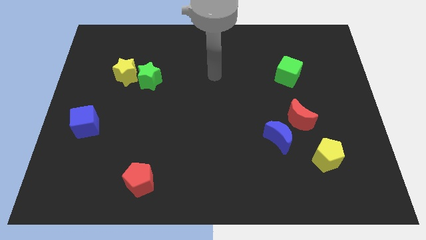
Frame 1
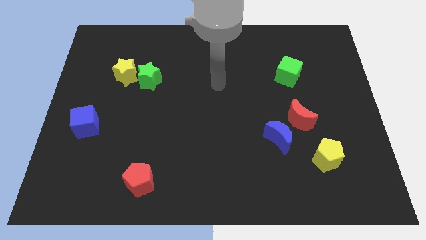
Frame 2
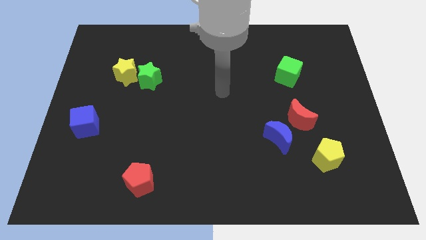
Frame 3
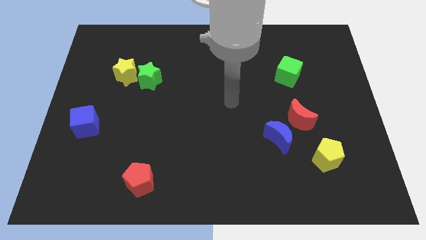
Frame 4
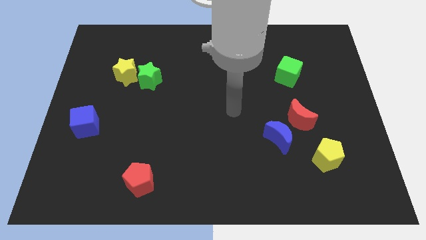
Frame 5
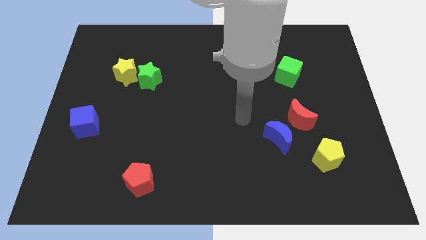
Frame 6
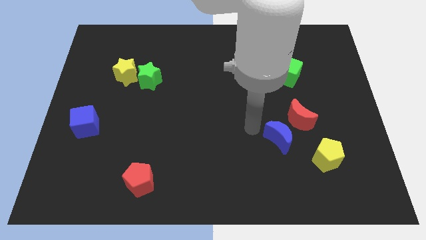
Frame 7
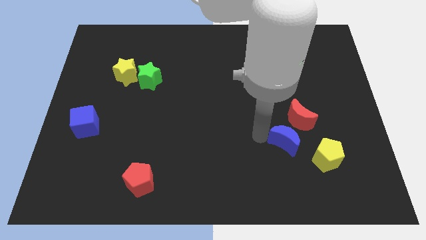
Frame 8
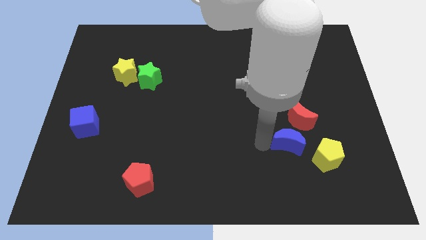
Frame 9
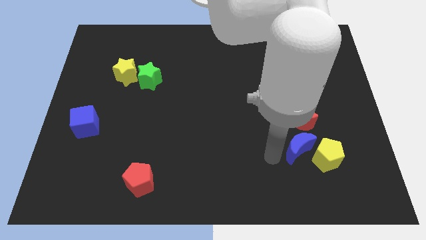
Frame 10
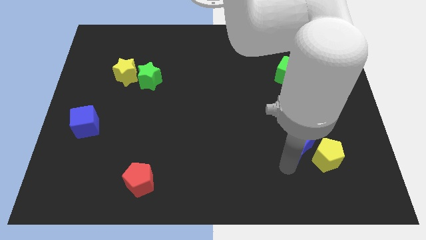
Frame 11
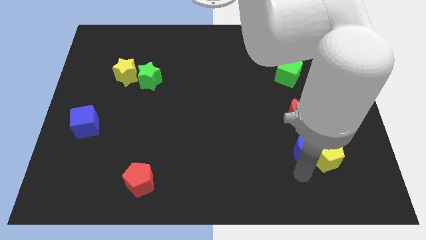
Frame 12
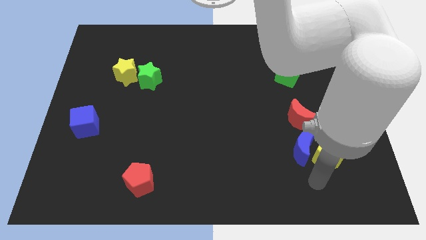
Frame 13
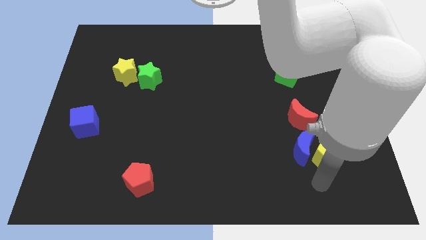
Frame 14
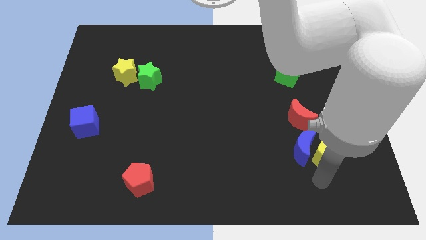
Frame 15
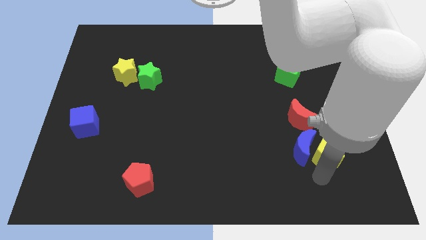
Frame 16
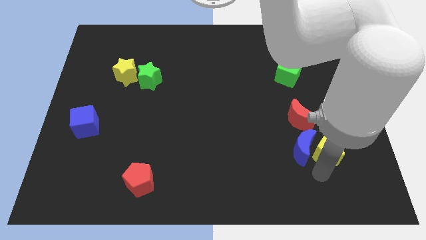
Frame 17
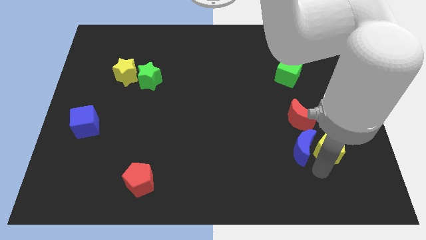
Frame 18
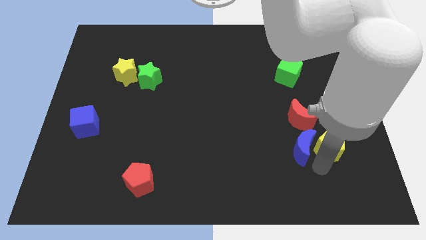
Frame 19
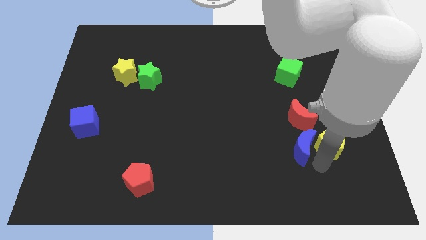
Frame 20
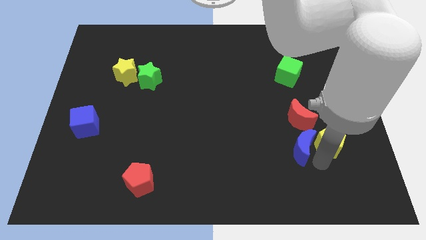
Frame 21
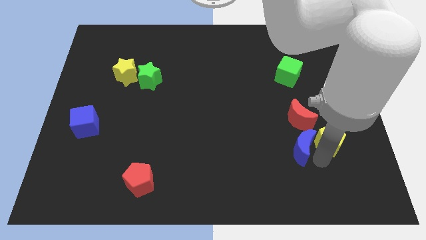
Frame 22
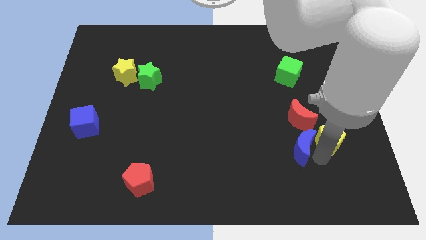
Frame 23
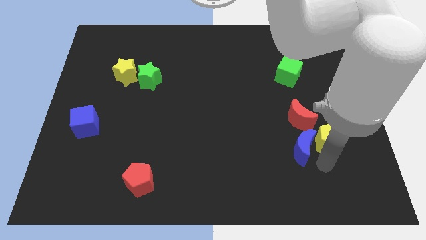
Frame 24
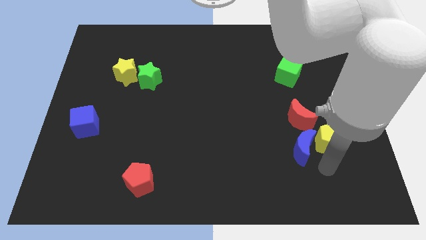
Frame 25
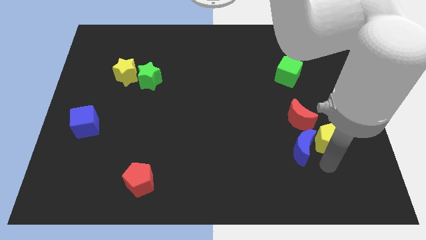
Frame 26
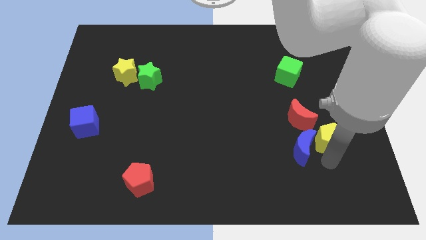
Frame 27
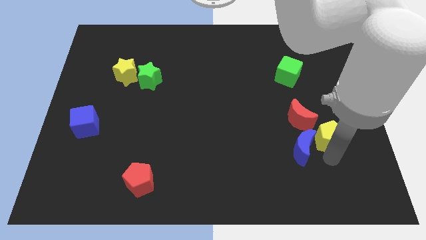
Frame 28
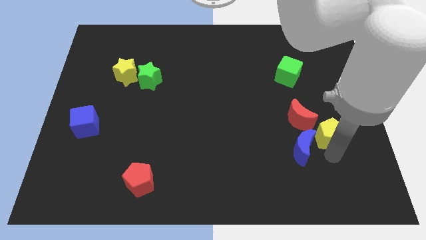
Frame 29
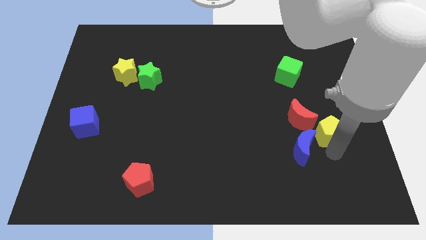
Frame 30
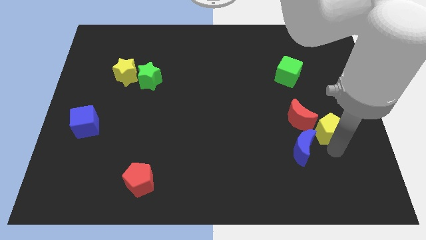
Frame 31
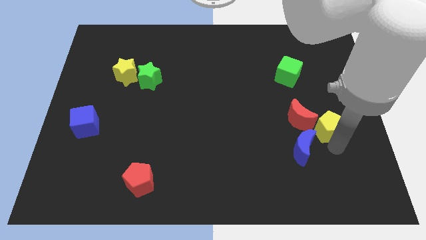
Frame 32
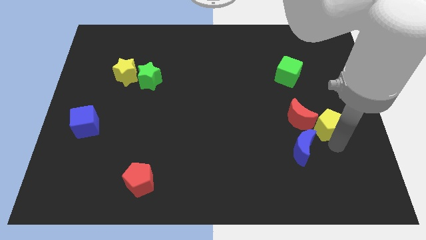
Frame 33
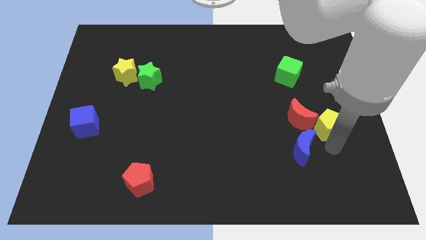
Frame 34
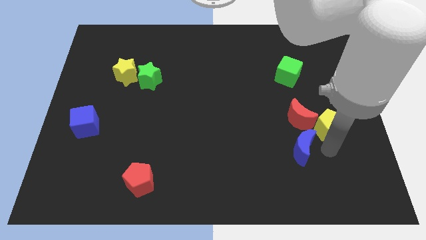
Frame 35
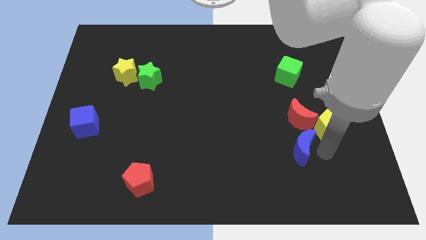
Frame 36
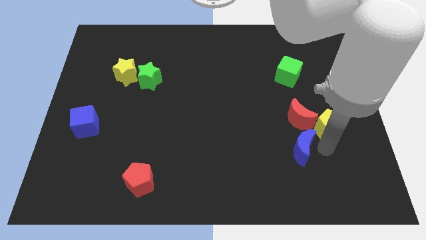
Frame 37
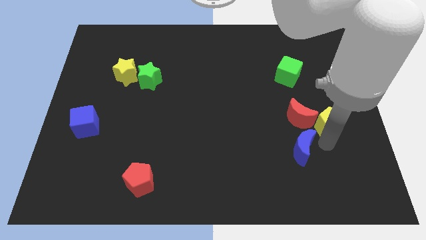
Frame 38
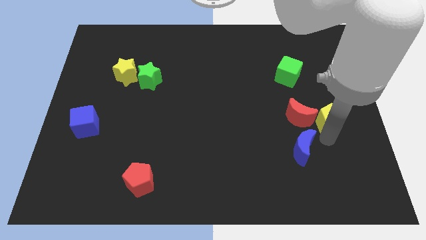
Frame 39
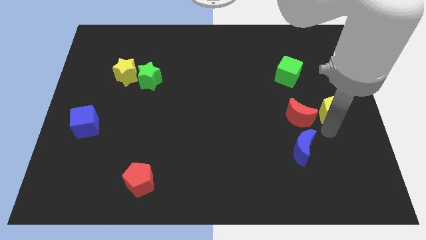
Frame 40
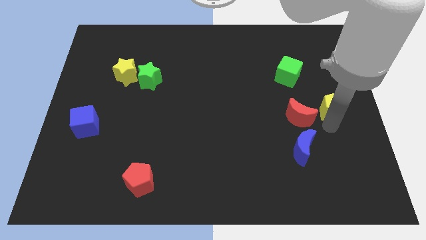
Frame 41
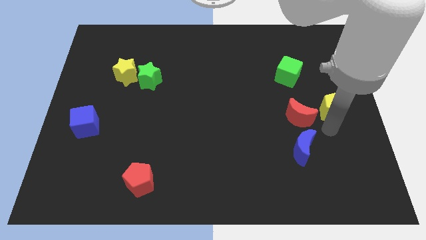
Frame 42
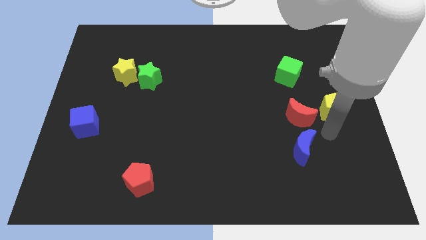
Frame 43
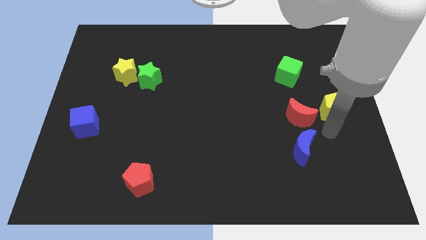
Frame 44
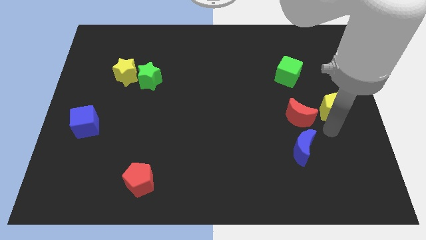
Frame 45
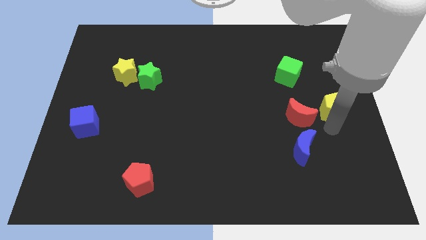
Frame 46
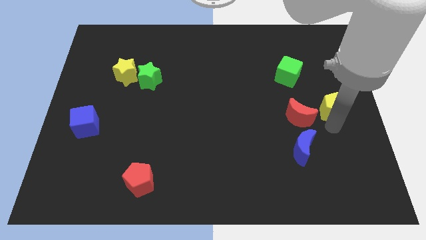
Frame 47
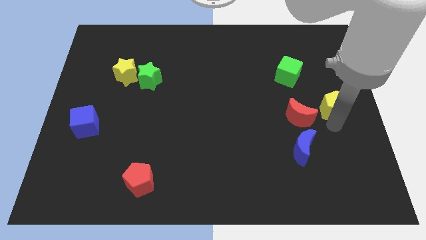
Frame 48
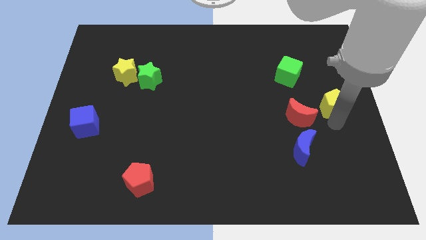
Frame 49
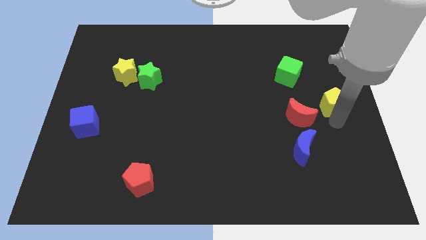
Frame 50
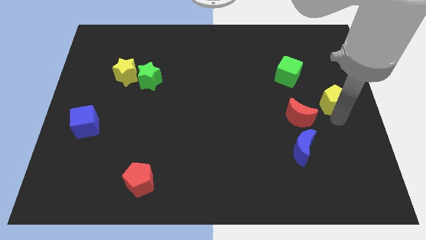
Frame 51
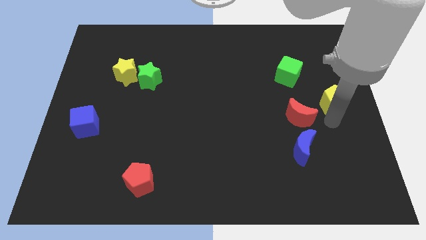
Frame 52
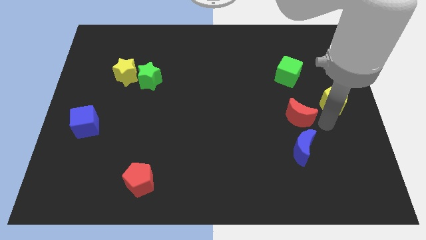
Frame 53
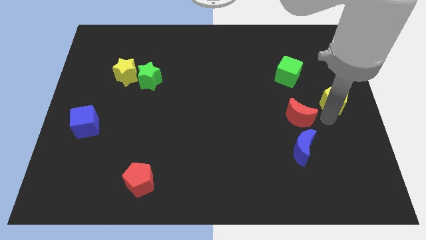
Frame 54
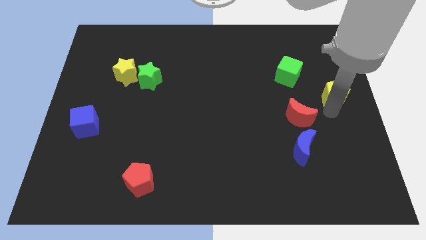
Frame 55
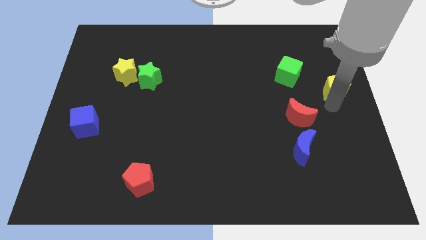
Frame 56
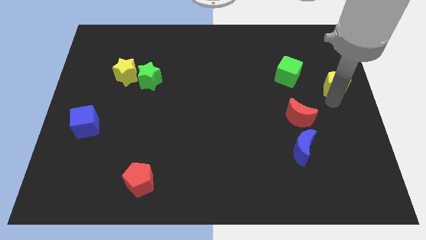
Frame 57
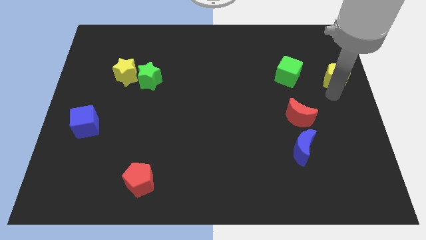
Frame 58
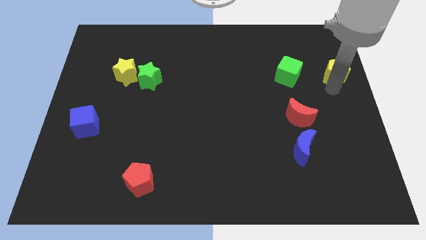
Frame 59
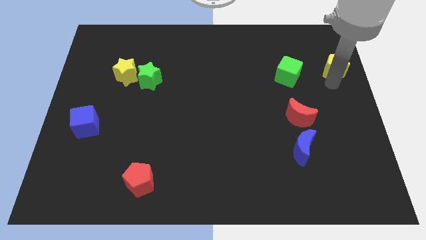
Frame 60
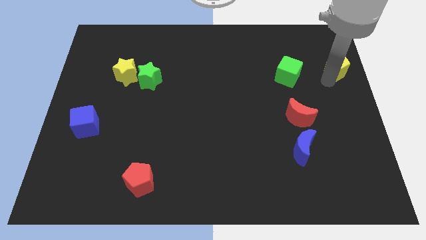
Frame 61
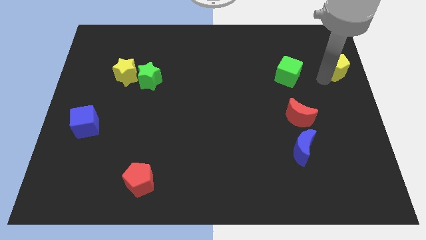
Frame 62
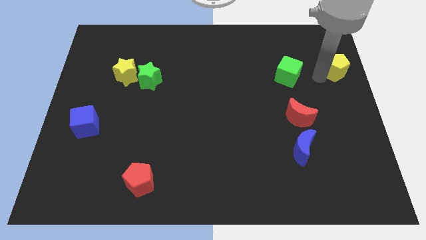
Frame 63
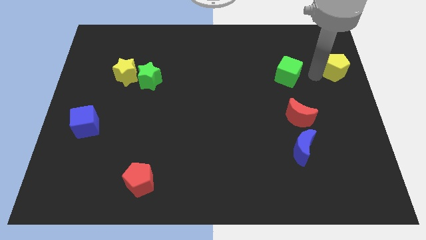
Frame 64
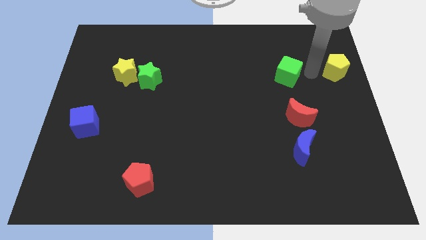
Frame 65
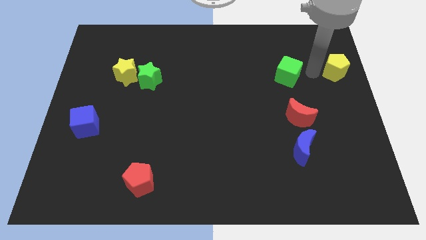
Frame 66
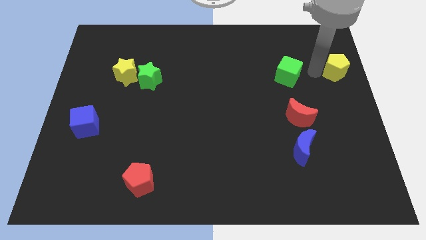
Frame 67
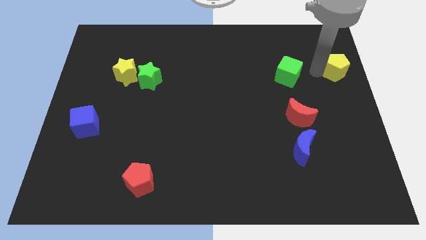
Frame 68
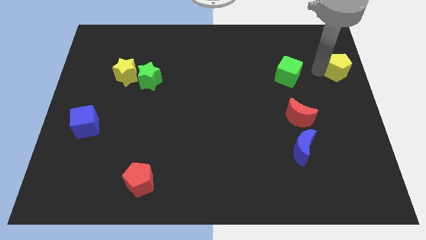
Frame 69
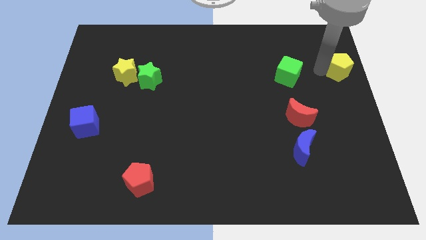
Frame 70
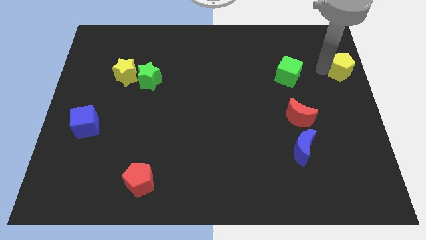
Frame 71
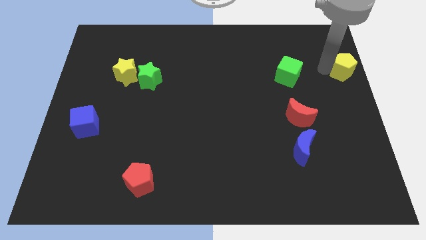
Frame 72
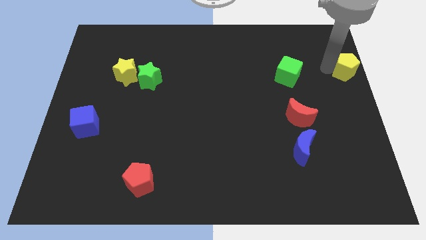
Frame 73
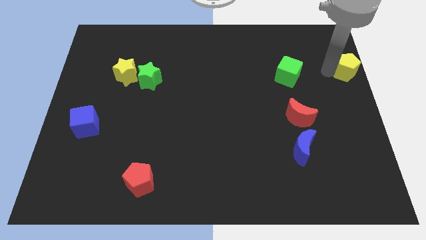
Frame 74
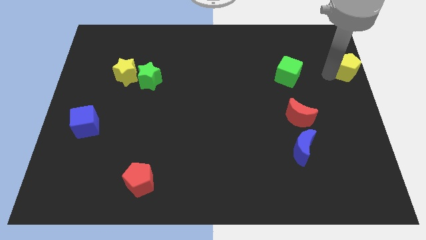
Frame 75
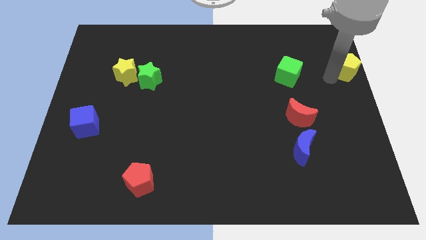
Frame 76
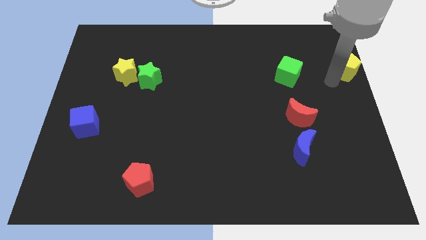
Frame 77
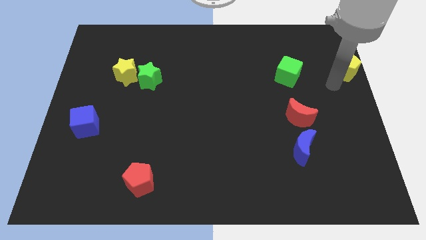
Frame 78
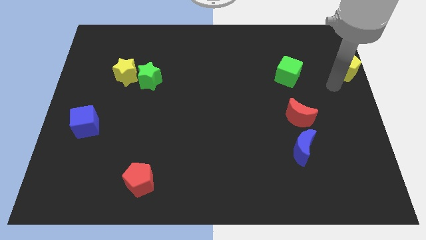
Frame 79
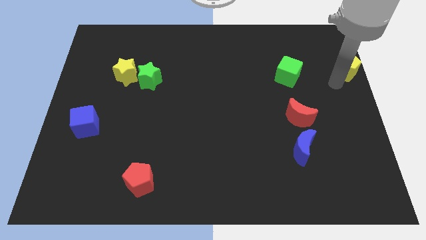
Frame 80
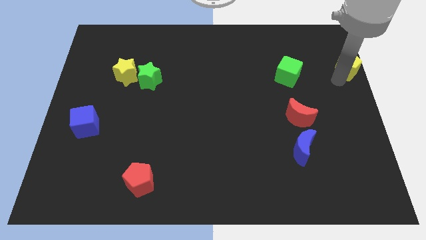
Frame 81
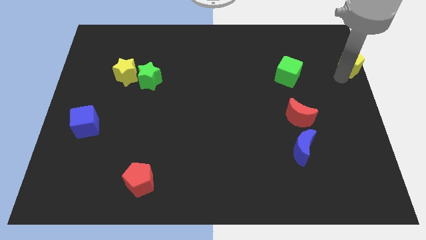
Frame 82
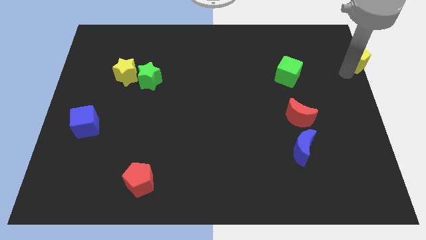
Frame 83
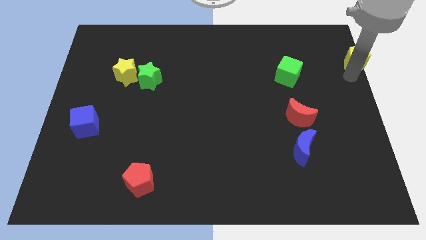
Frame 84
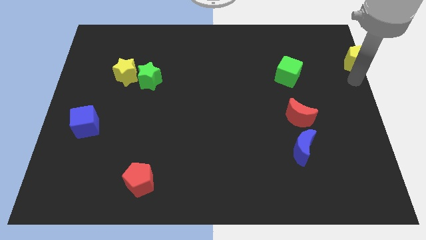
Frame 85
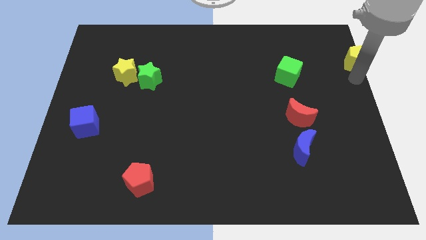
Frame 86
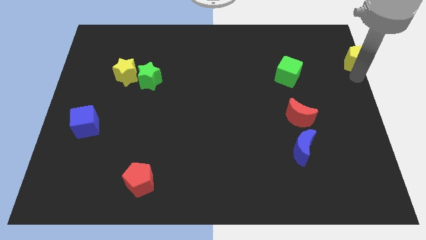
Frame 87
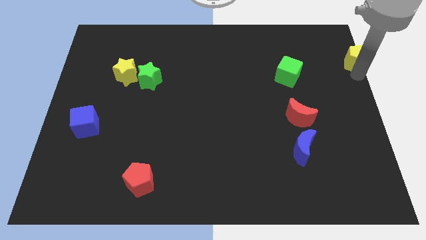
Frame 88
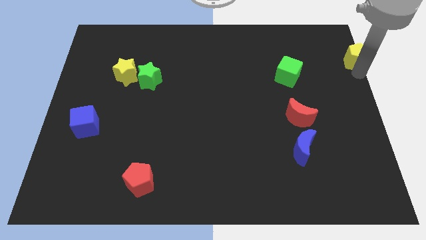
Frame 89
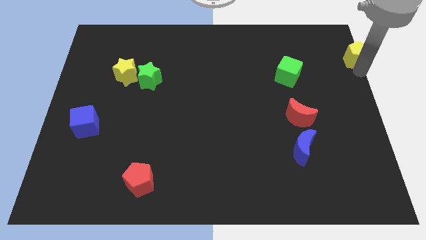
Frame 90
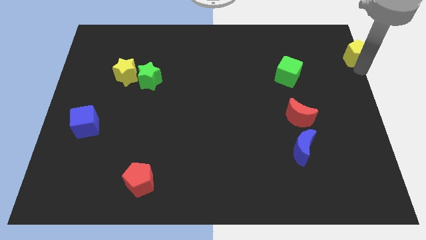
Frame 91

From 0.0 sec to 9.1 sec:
put the yellow pentagon to the top right of the board
